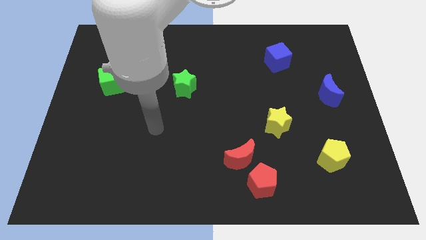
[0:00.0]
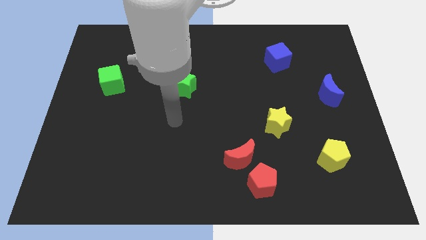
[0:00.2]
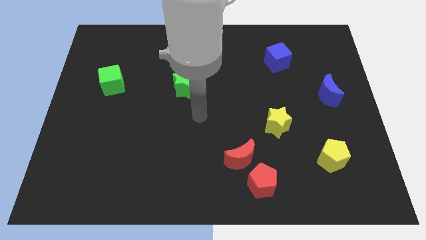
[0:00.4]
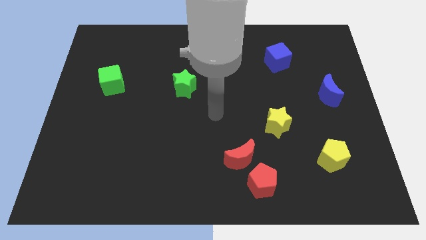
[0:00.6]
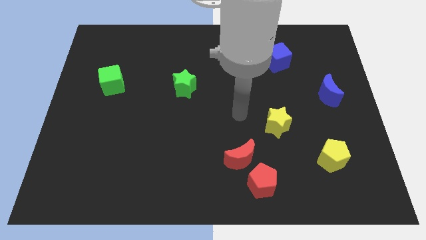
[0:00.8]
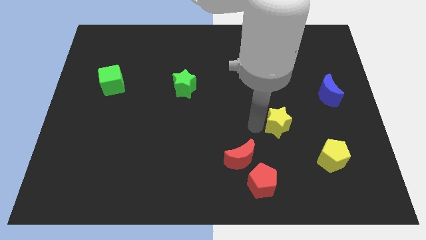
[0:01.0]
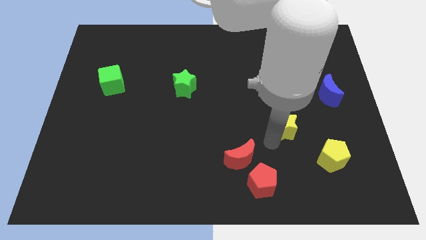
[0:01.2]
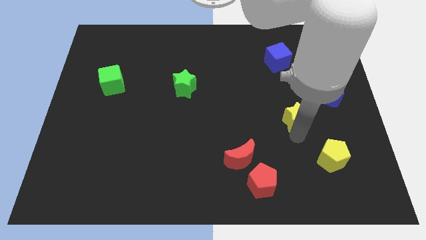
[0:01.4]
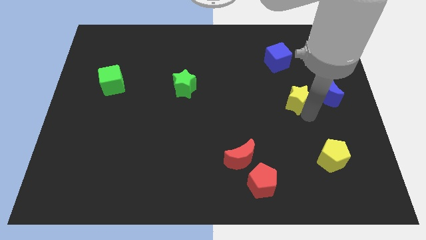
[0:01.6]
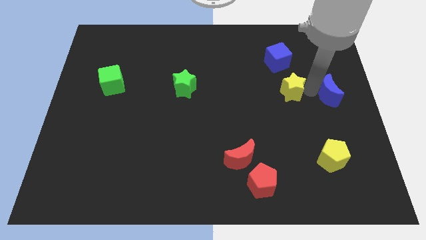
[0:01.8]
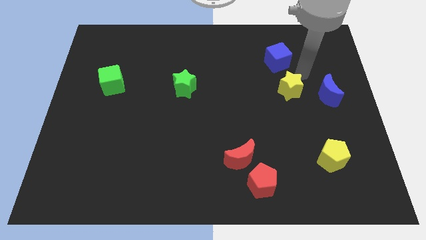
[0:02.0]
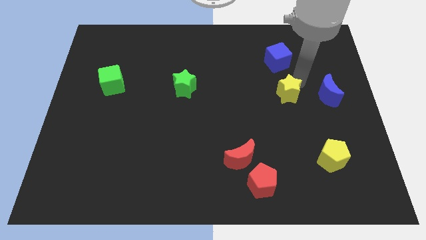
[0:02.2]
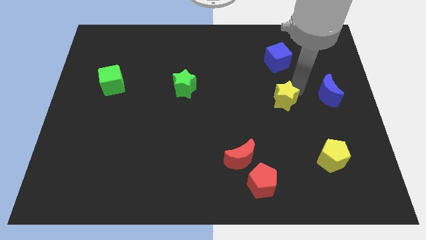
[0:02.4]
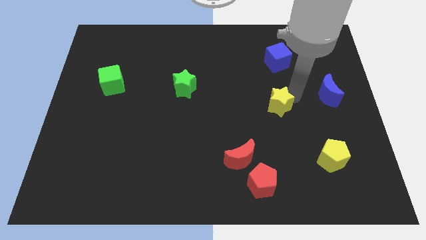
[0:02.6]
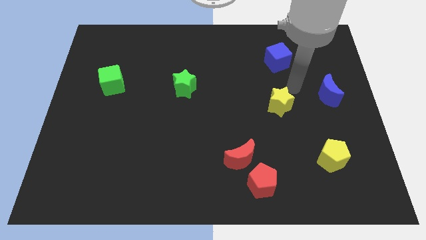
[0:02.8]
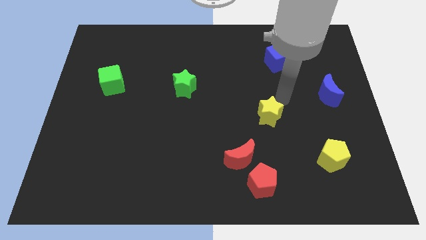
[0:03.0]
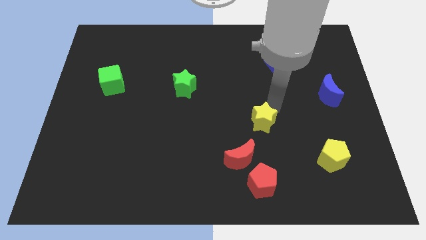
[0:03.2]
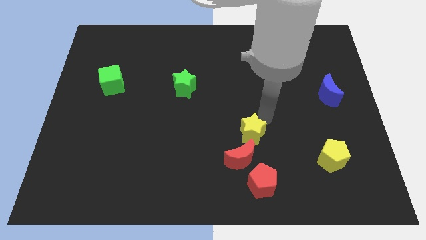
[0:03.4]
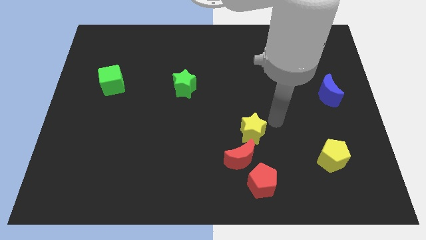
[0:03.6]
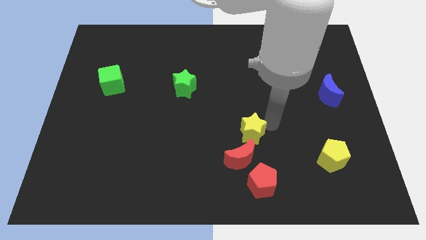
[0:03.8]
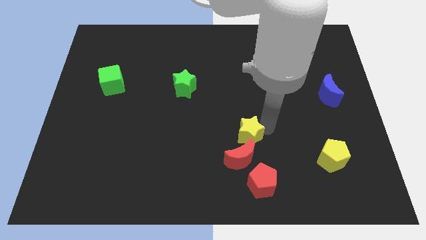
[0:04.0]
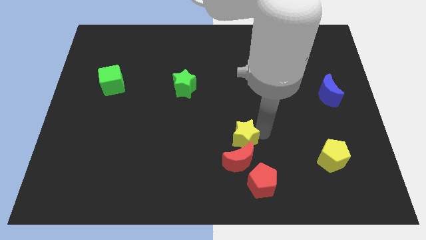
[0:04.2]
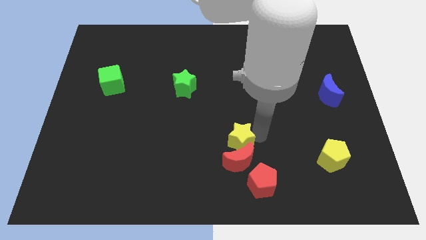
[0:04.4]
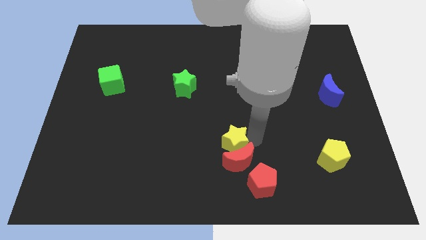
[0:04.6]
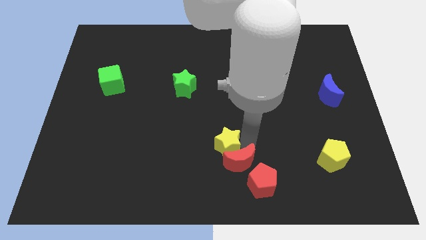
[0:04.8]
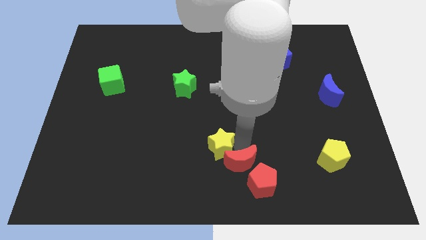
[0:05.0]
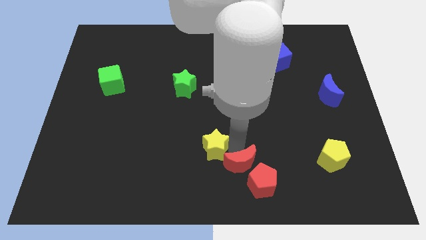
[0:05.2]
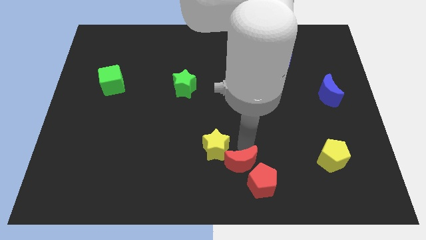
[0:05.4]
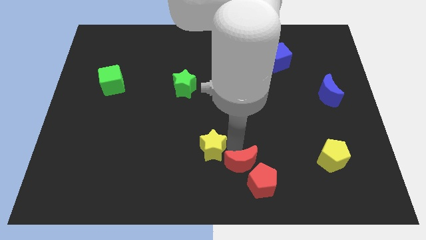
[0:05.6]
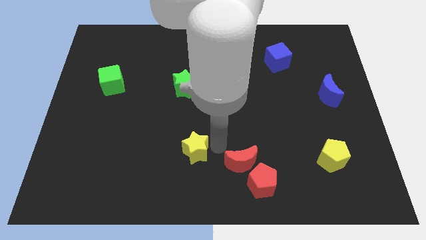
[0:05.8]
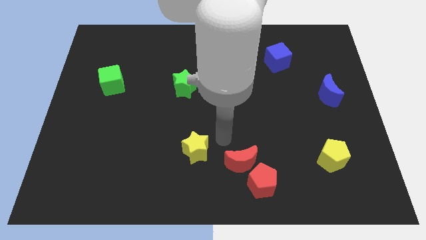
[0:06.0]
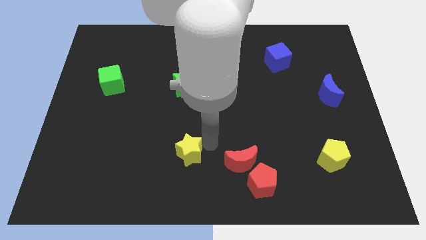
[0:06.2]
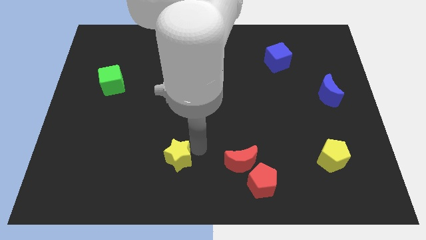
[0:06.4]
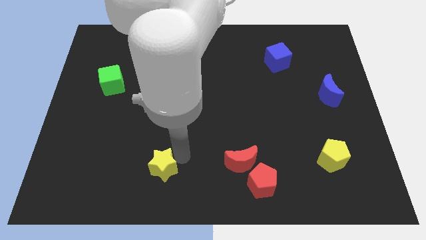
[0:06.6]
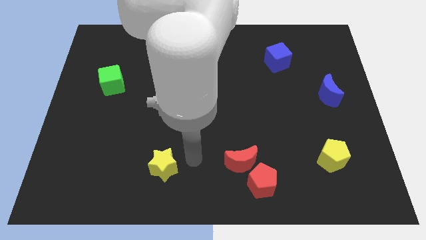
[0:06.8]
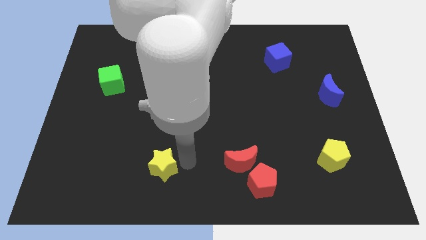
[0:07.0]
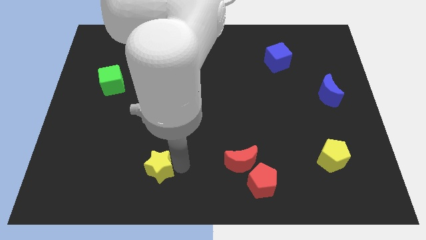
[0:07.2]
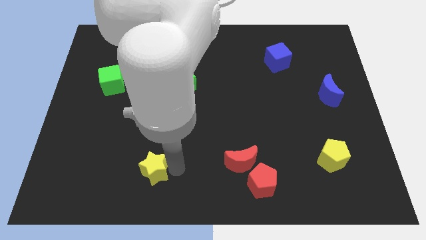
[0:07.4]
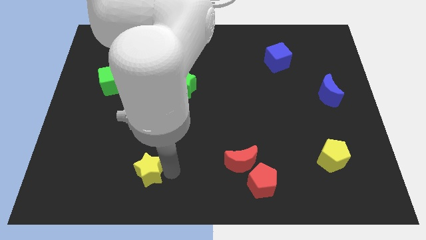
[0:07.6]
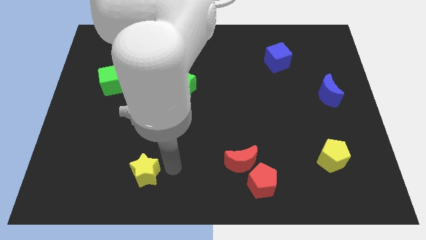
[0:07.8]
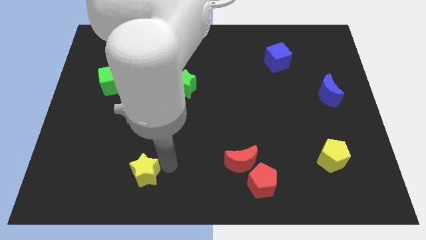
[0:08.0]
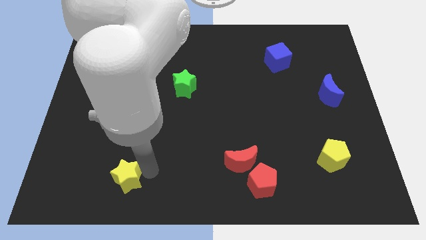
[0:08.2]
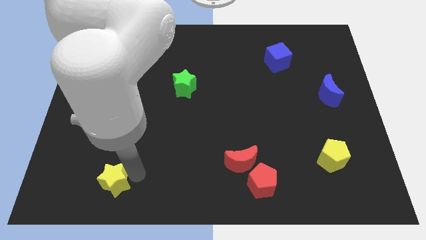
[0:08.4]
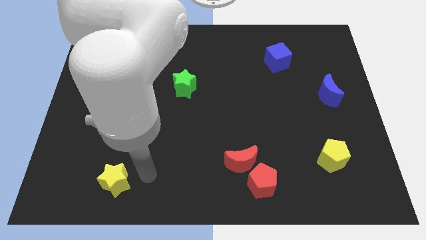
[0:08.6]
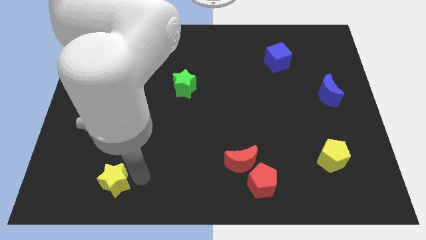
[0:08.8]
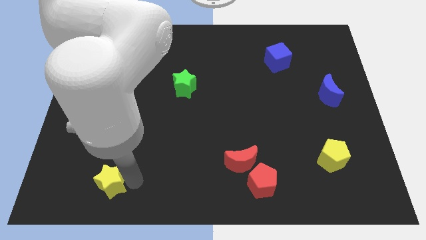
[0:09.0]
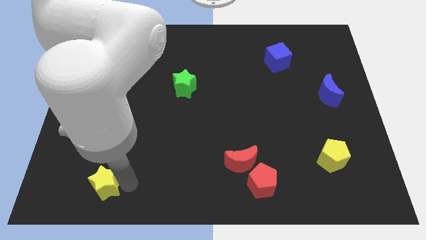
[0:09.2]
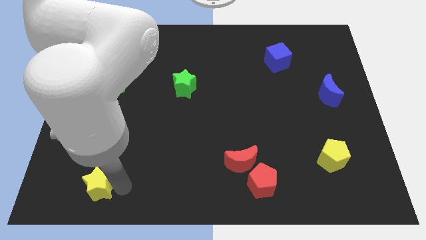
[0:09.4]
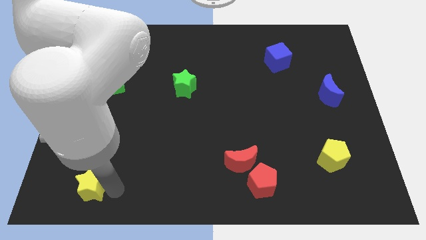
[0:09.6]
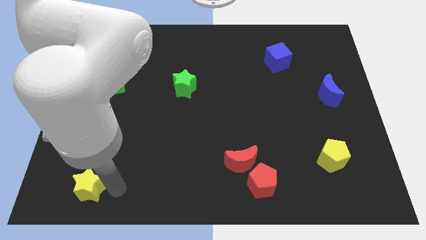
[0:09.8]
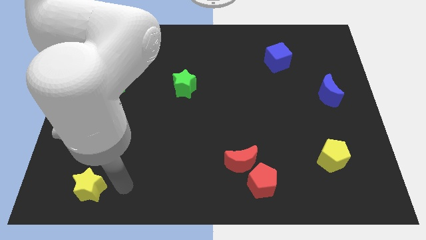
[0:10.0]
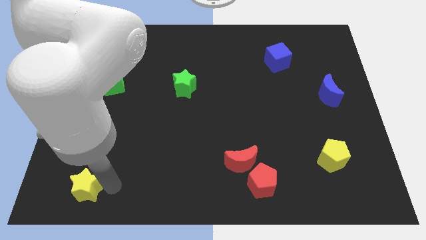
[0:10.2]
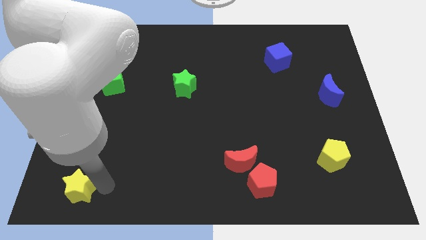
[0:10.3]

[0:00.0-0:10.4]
put the yellow star to the lower left corner

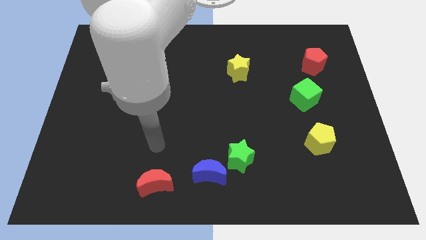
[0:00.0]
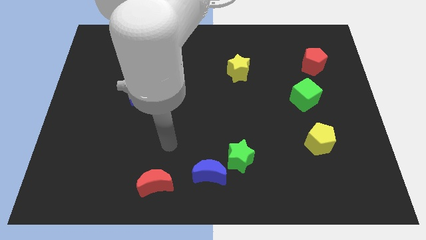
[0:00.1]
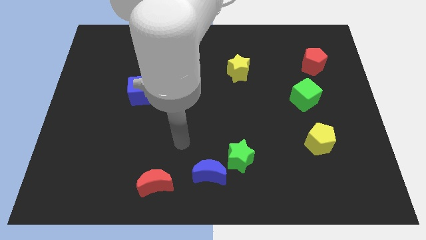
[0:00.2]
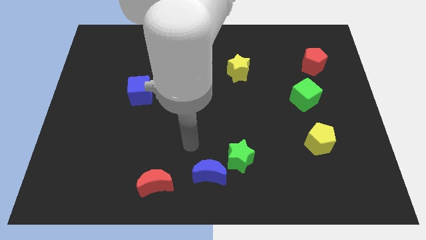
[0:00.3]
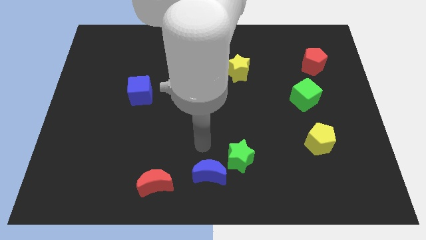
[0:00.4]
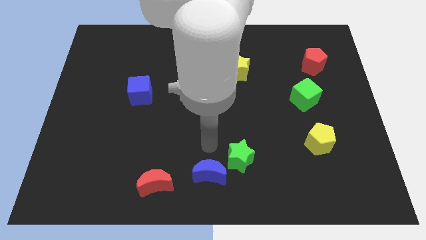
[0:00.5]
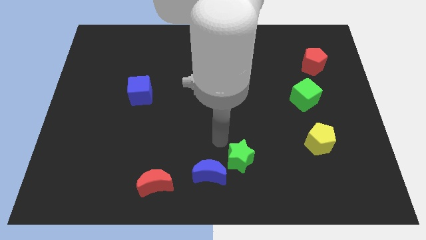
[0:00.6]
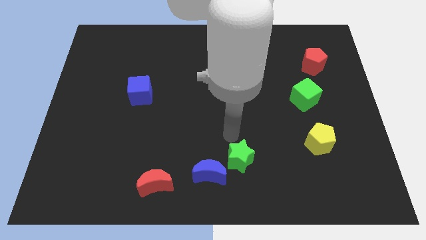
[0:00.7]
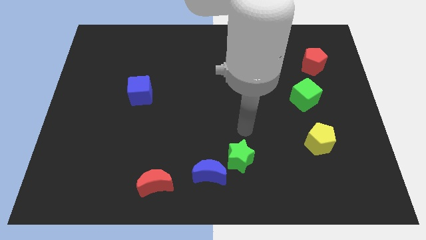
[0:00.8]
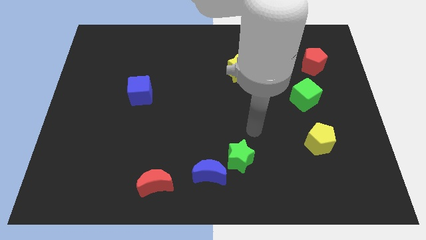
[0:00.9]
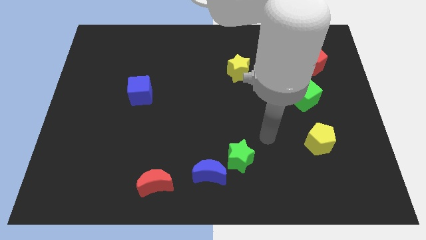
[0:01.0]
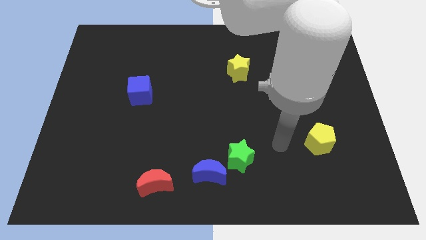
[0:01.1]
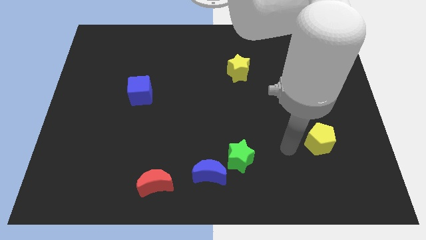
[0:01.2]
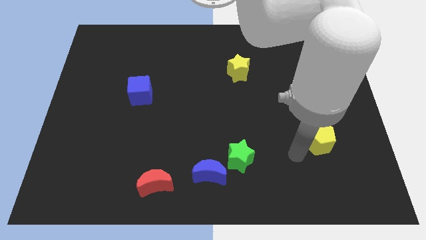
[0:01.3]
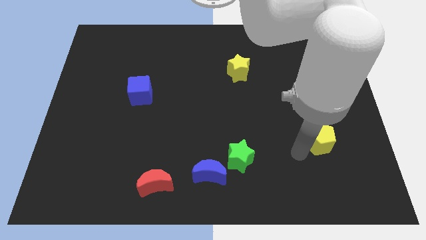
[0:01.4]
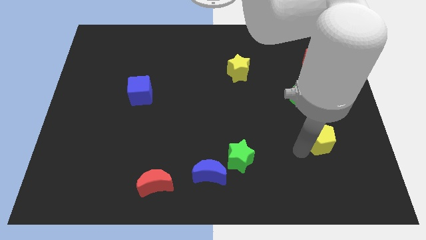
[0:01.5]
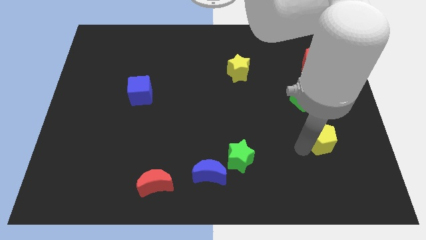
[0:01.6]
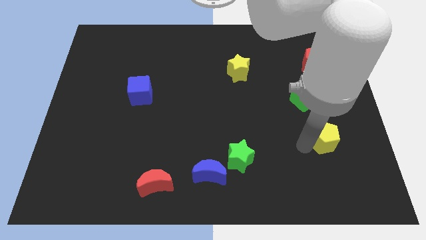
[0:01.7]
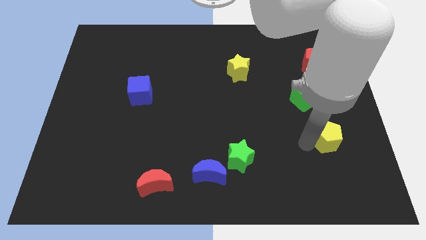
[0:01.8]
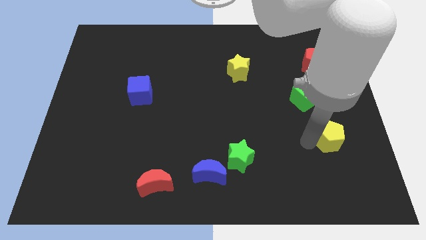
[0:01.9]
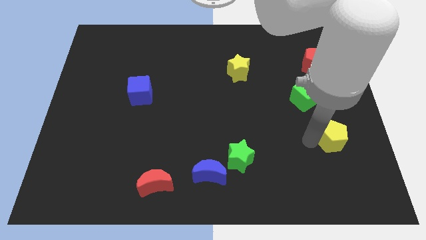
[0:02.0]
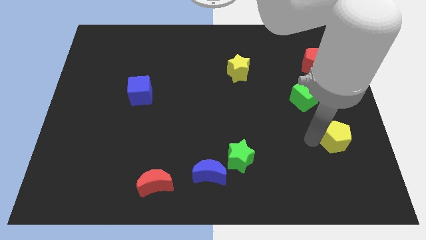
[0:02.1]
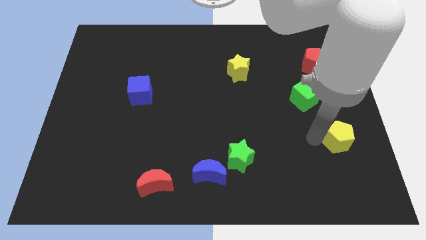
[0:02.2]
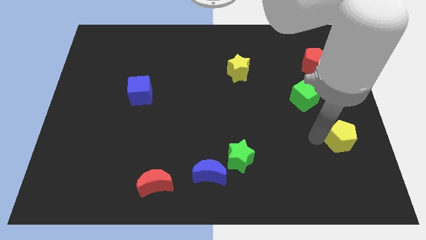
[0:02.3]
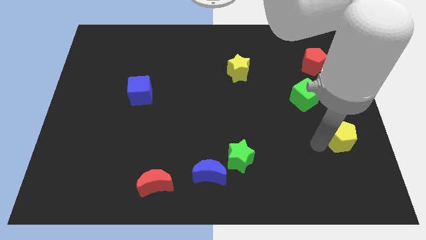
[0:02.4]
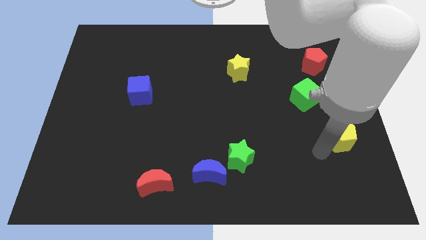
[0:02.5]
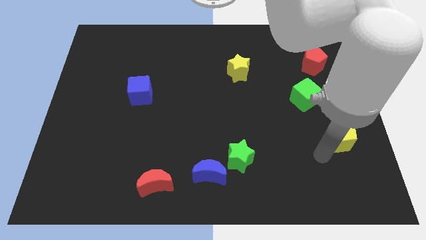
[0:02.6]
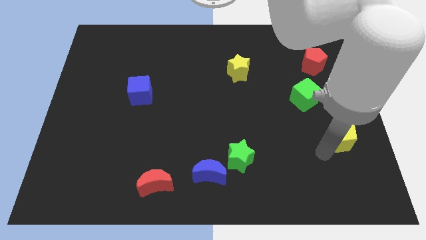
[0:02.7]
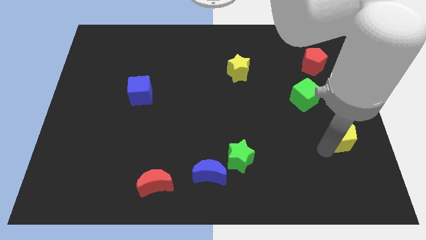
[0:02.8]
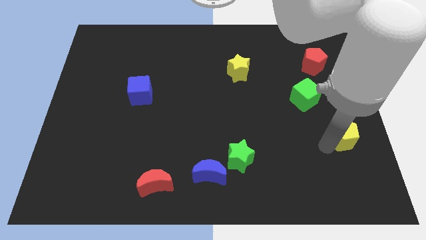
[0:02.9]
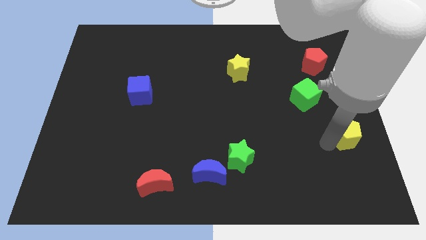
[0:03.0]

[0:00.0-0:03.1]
slide the yellow pentagon to the center right
